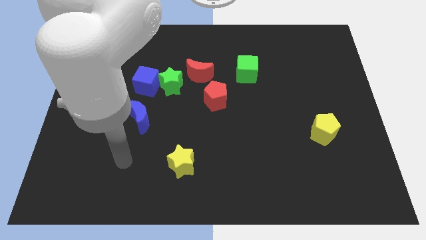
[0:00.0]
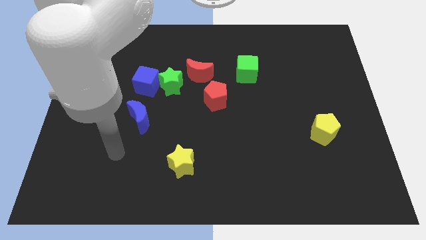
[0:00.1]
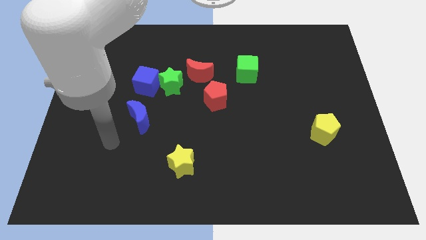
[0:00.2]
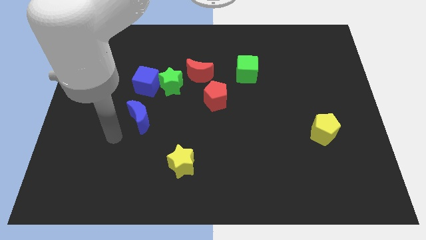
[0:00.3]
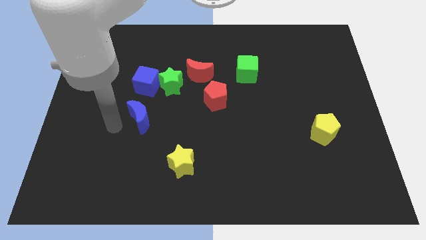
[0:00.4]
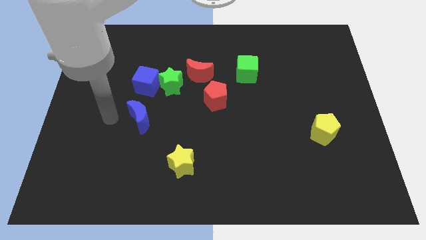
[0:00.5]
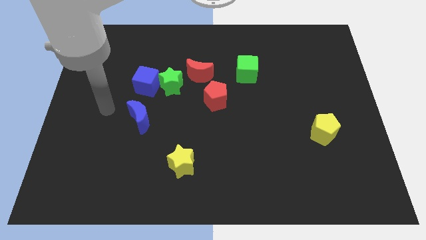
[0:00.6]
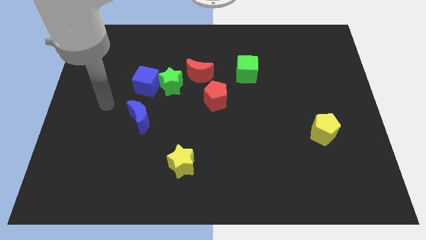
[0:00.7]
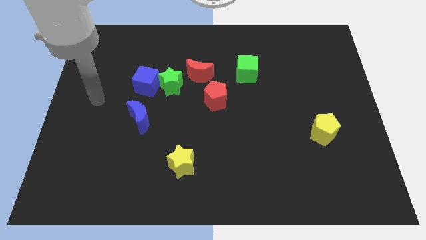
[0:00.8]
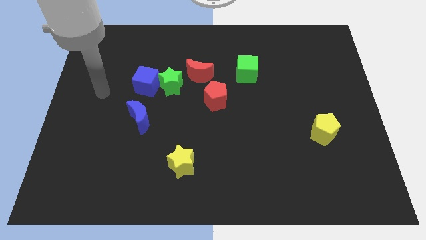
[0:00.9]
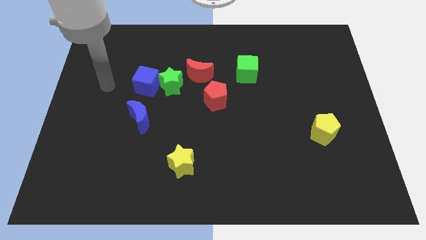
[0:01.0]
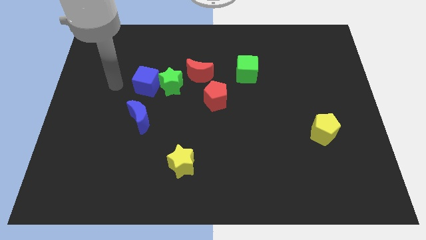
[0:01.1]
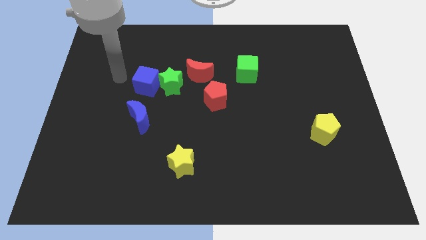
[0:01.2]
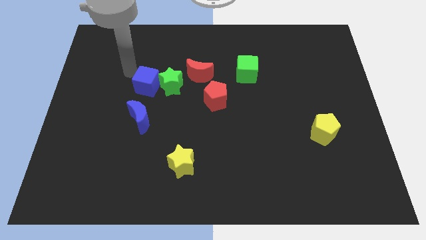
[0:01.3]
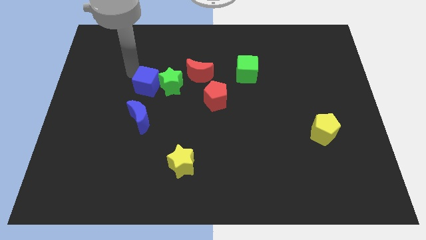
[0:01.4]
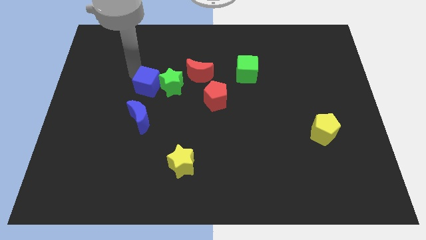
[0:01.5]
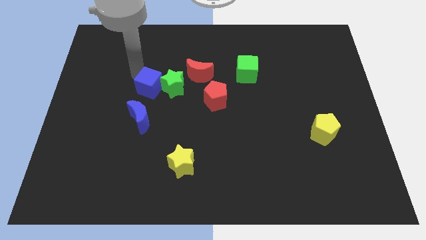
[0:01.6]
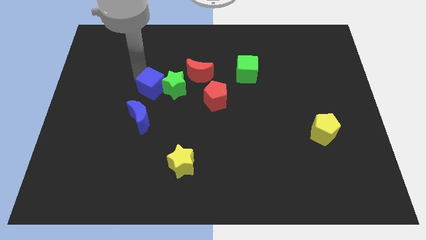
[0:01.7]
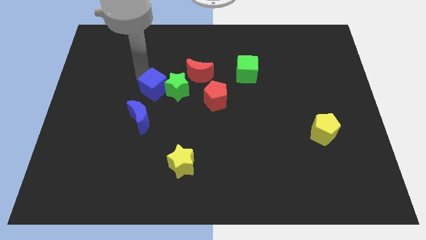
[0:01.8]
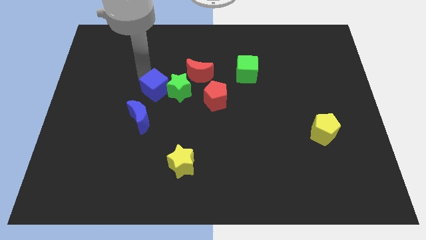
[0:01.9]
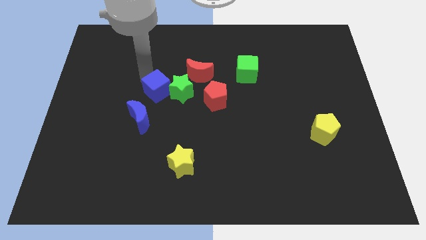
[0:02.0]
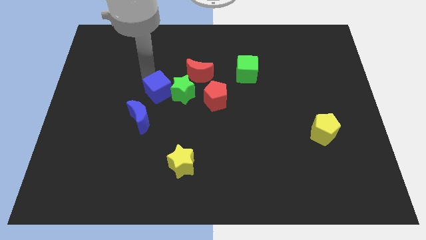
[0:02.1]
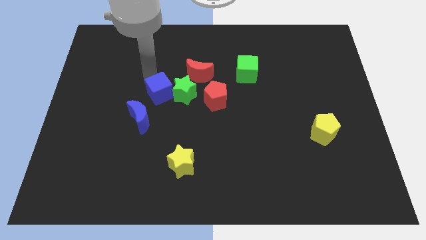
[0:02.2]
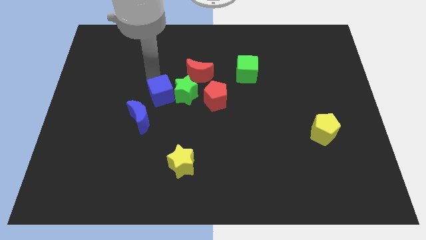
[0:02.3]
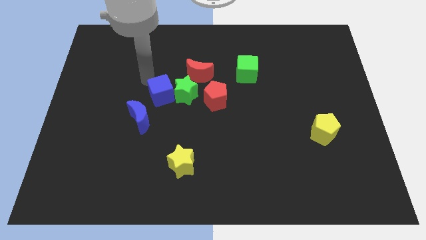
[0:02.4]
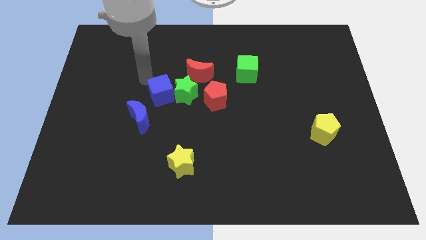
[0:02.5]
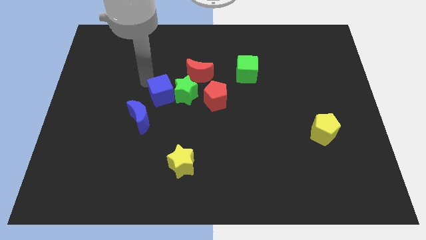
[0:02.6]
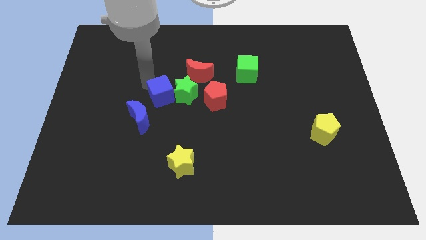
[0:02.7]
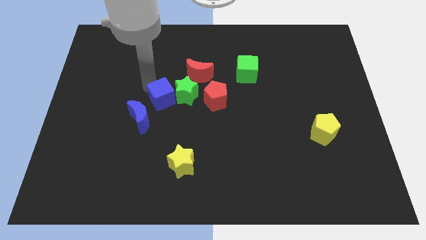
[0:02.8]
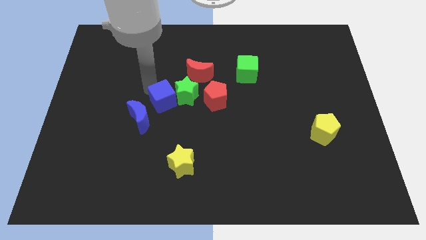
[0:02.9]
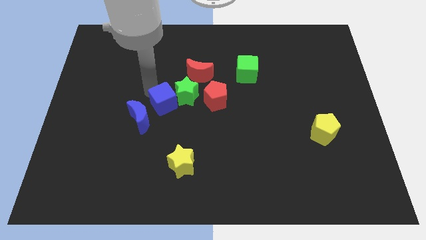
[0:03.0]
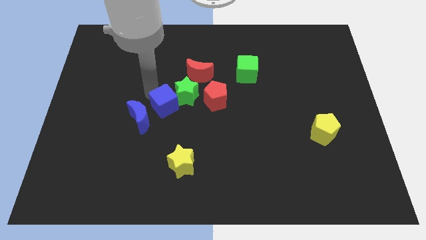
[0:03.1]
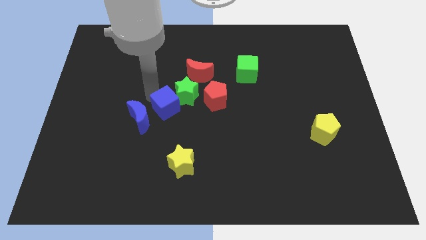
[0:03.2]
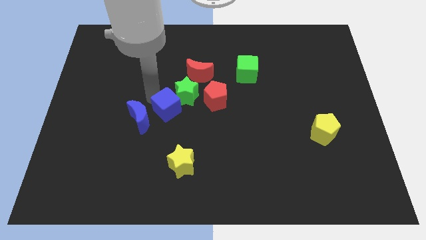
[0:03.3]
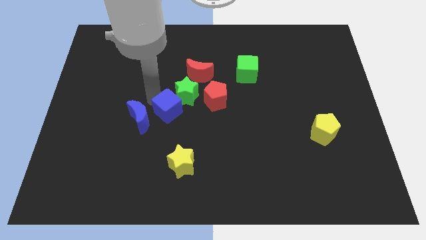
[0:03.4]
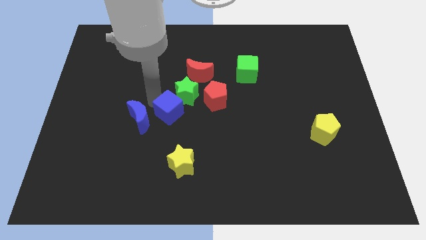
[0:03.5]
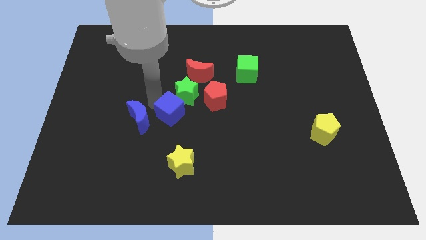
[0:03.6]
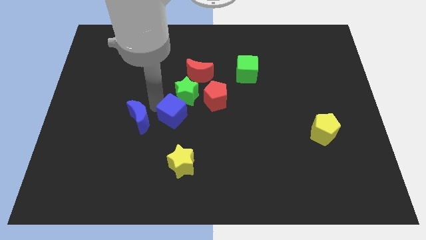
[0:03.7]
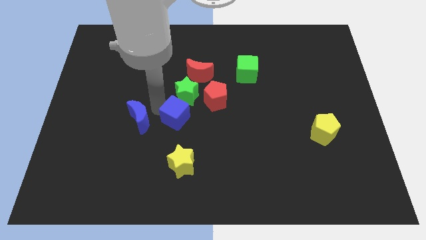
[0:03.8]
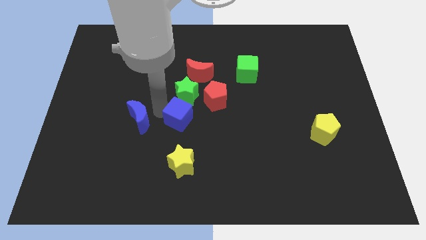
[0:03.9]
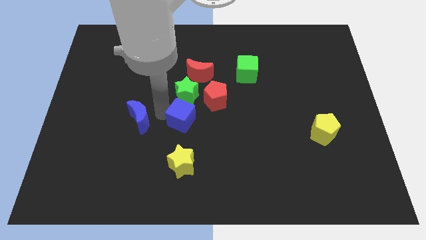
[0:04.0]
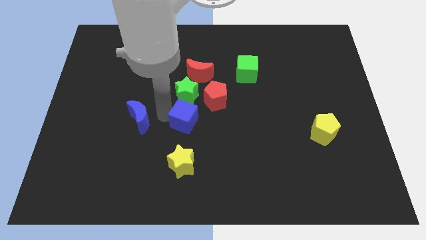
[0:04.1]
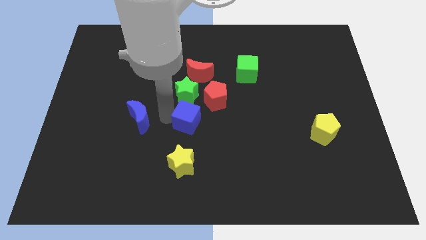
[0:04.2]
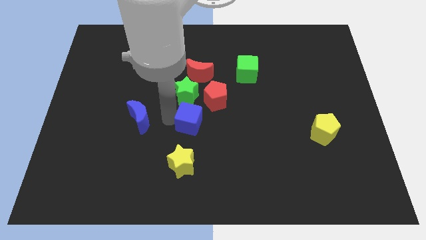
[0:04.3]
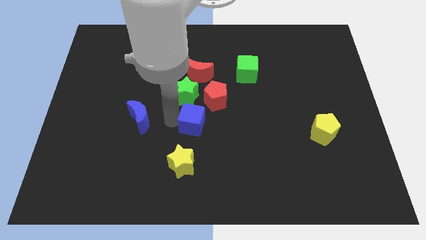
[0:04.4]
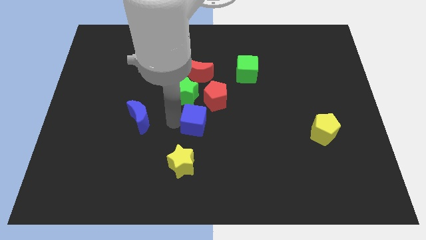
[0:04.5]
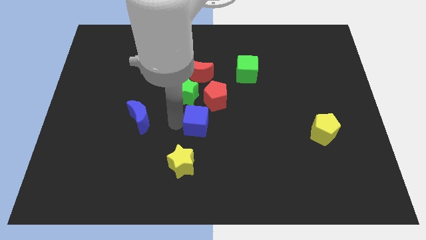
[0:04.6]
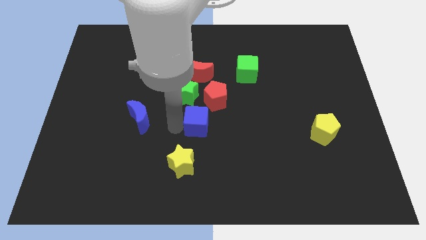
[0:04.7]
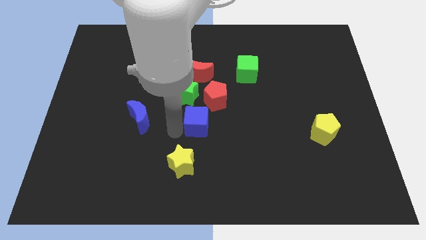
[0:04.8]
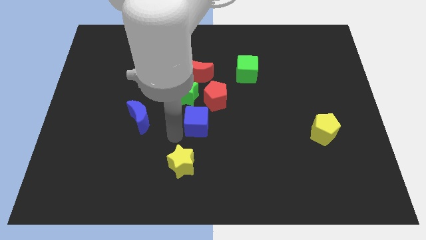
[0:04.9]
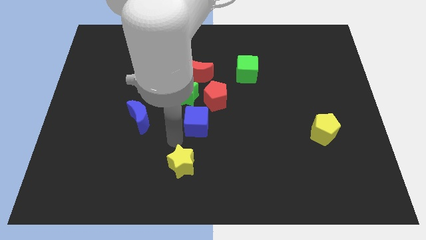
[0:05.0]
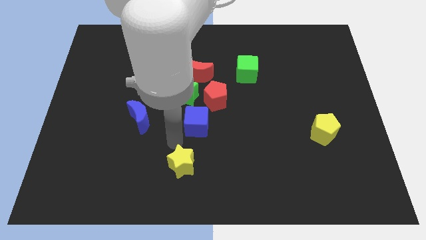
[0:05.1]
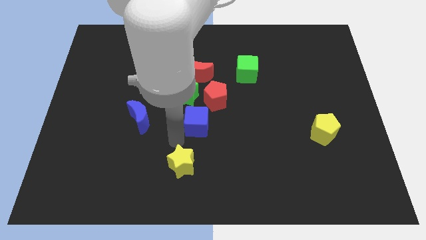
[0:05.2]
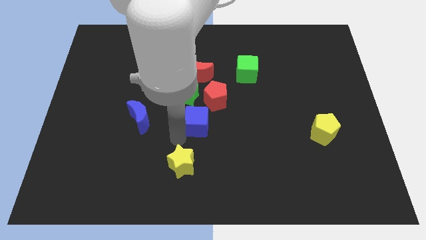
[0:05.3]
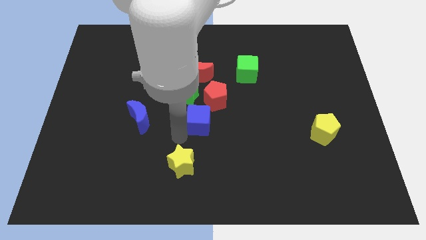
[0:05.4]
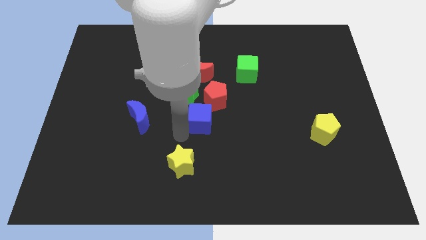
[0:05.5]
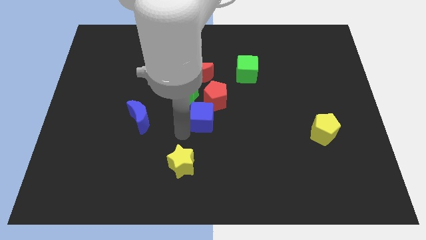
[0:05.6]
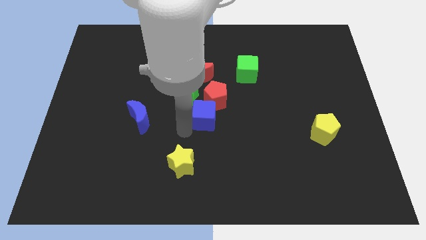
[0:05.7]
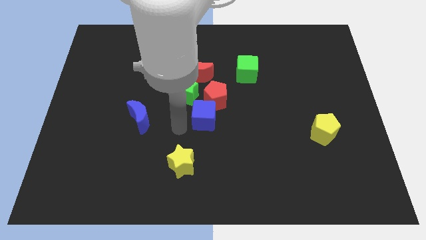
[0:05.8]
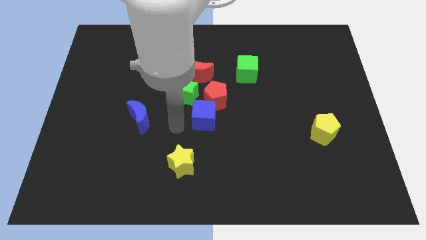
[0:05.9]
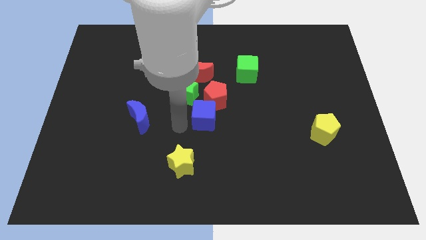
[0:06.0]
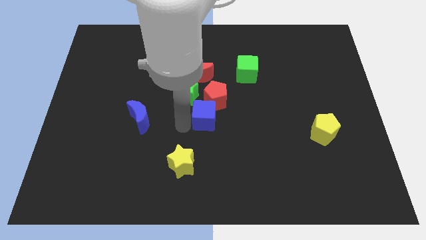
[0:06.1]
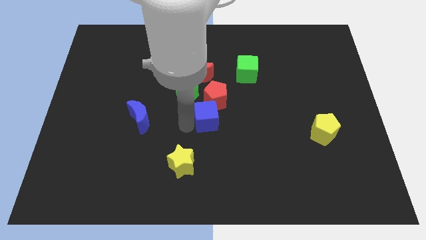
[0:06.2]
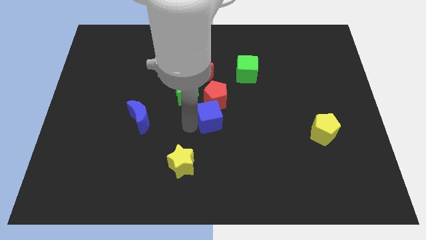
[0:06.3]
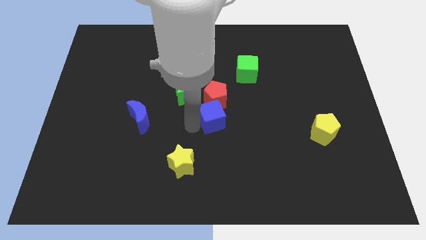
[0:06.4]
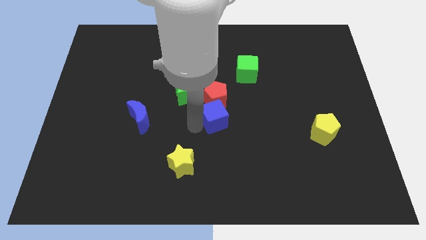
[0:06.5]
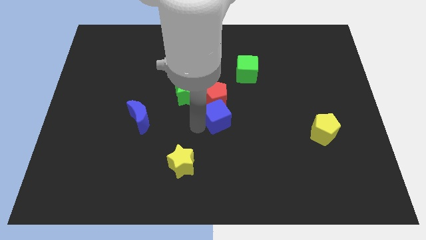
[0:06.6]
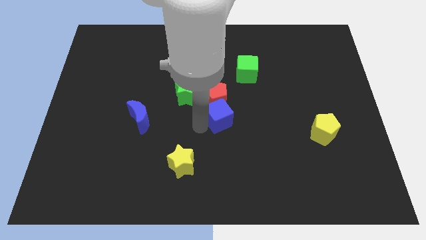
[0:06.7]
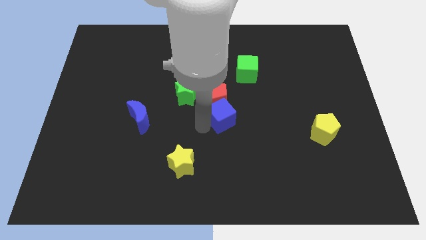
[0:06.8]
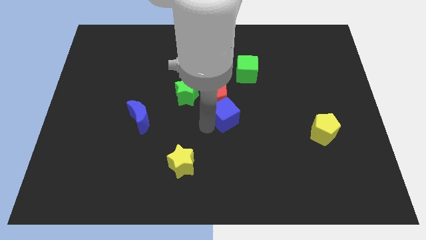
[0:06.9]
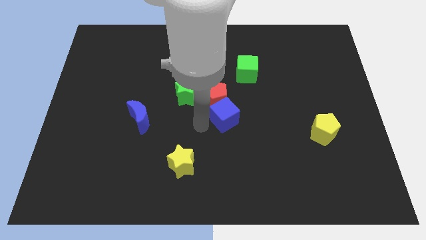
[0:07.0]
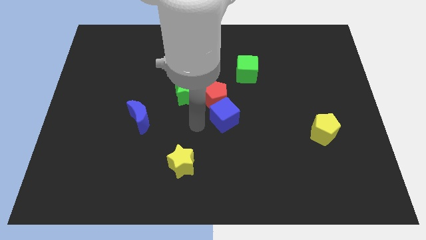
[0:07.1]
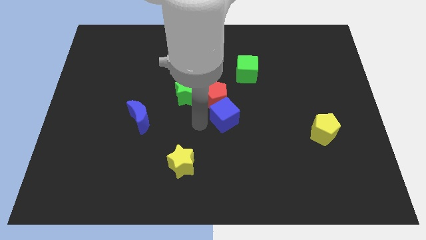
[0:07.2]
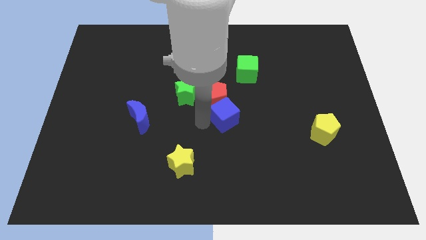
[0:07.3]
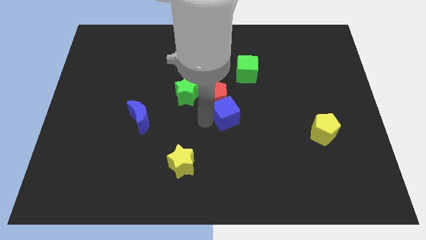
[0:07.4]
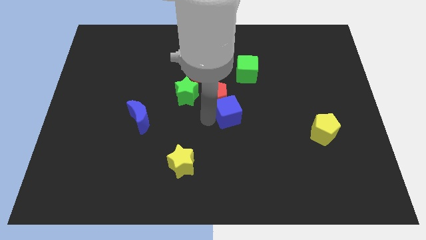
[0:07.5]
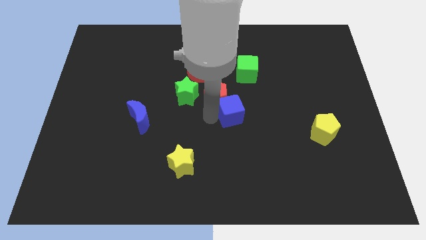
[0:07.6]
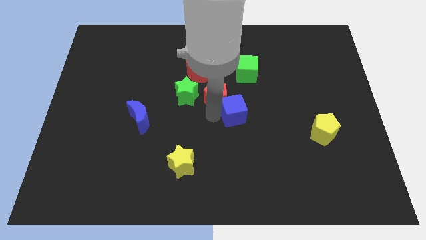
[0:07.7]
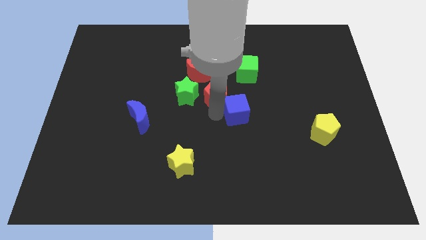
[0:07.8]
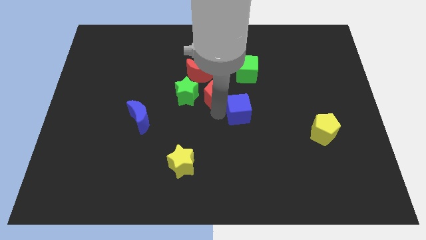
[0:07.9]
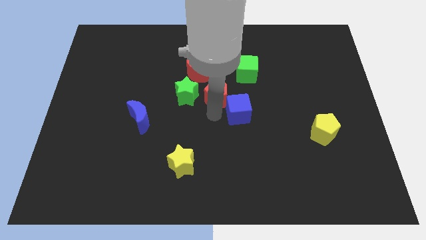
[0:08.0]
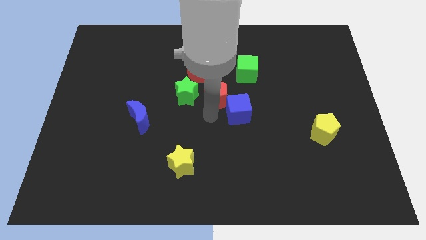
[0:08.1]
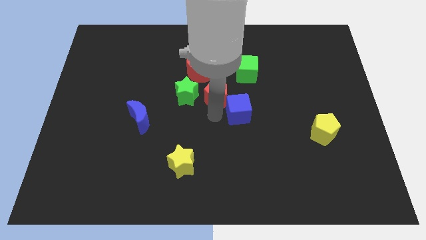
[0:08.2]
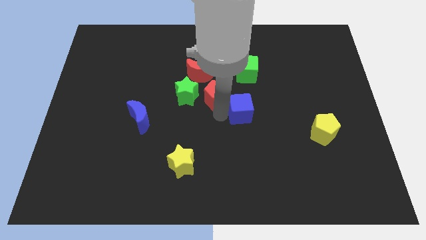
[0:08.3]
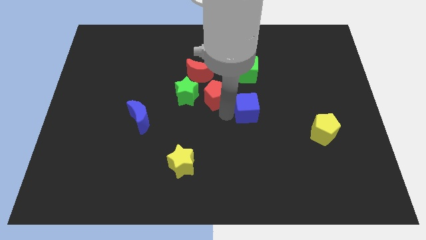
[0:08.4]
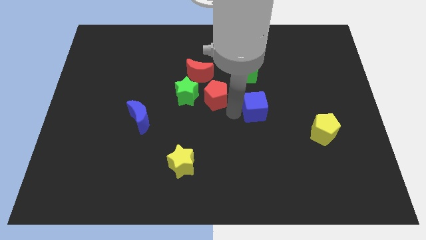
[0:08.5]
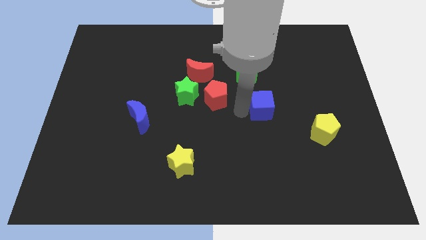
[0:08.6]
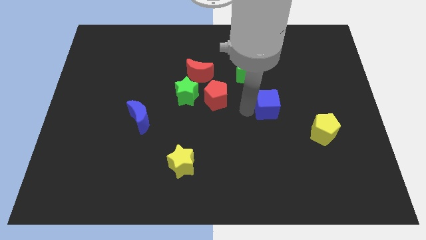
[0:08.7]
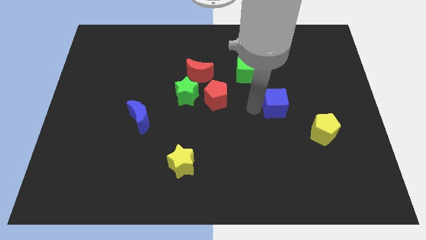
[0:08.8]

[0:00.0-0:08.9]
slide the blue cube diagonally up and to the left of the yellow pentagon
